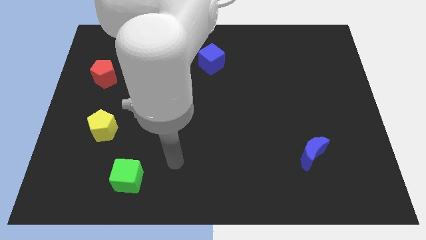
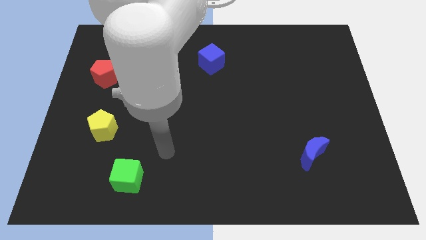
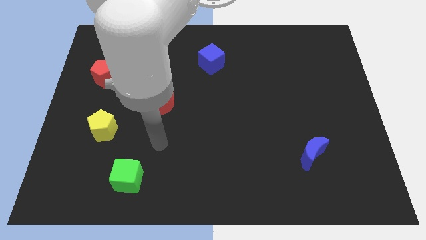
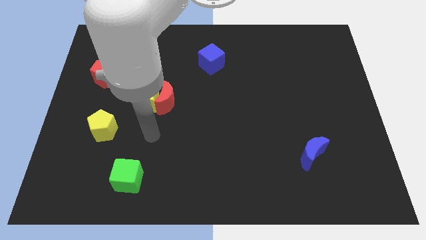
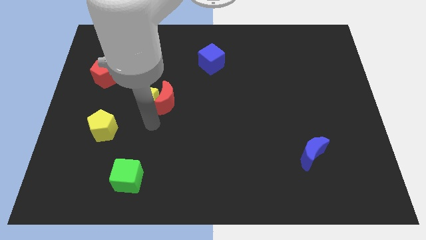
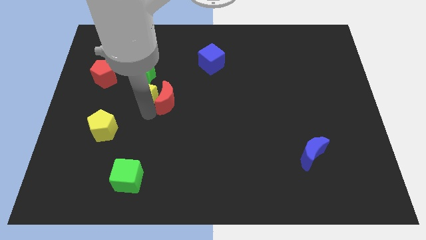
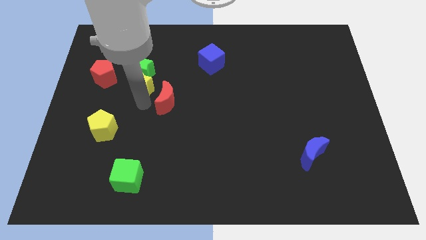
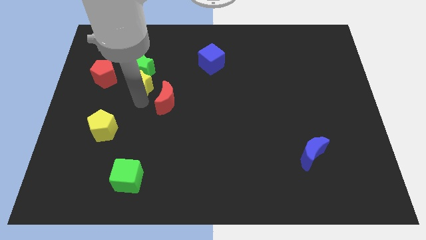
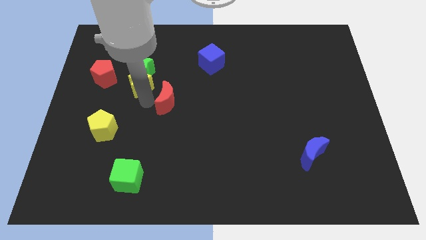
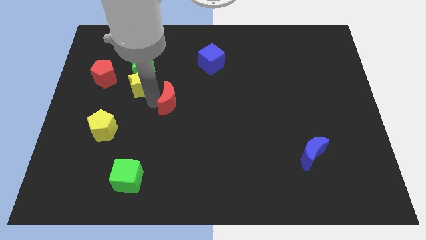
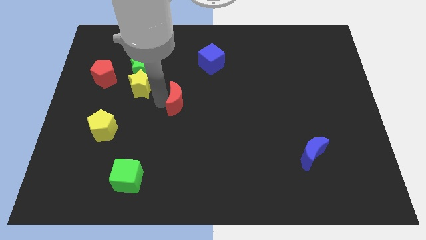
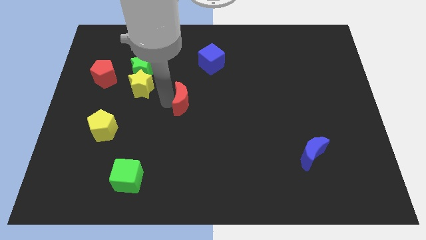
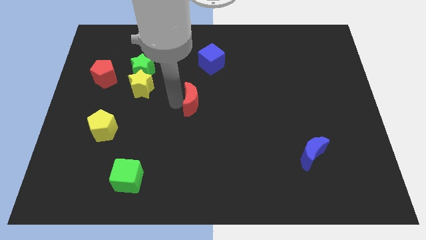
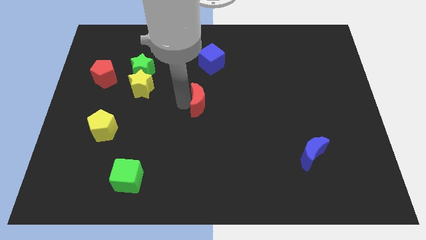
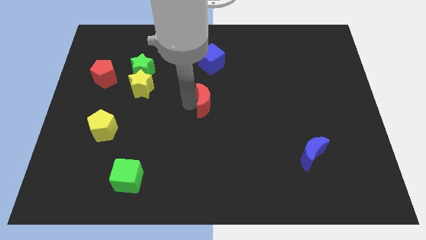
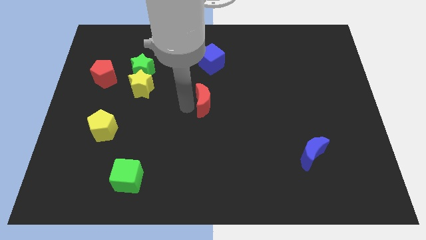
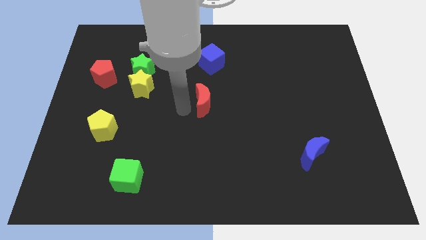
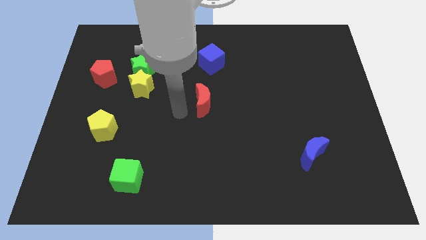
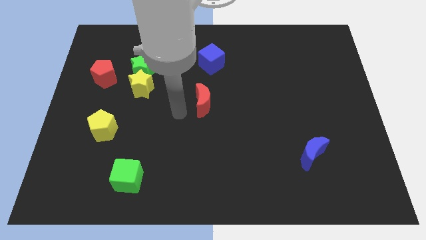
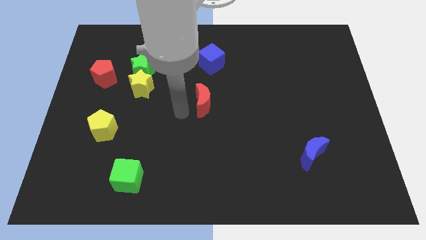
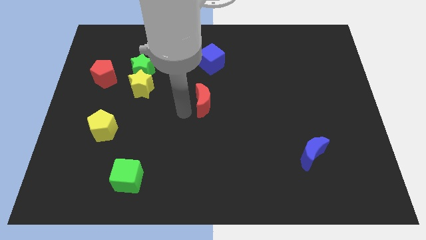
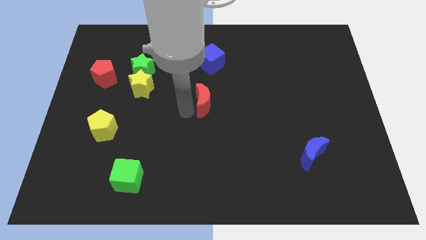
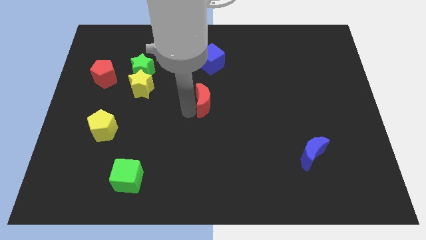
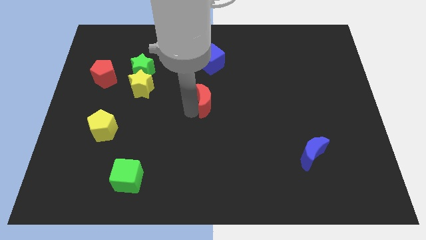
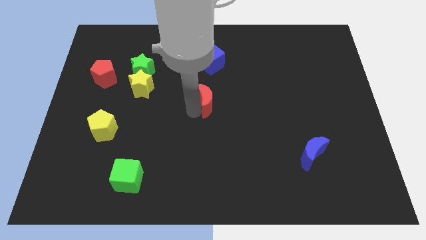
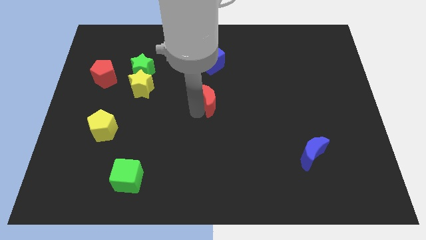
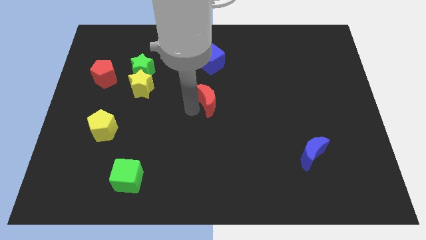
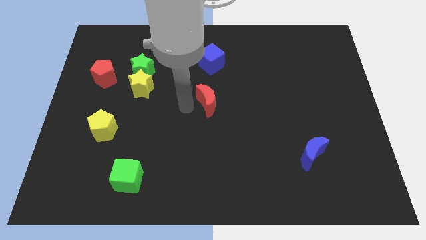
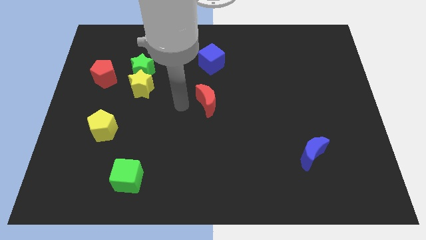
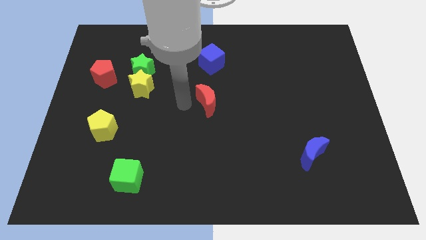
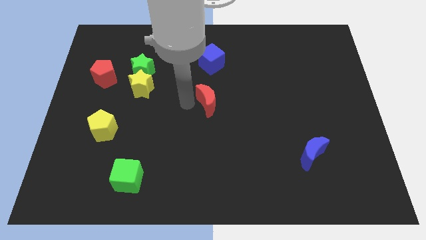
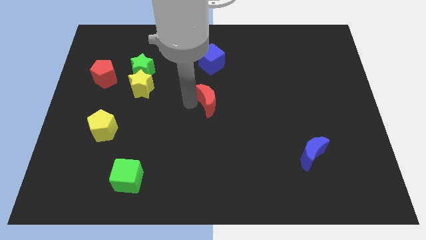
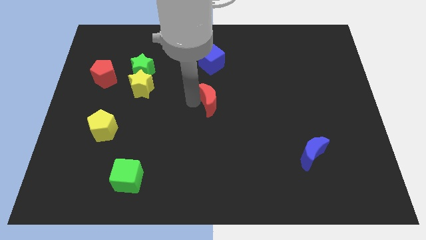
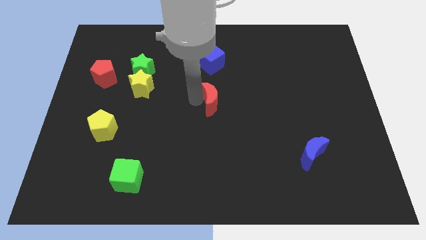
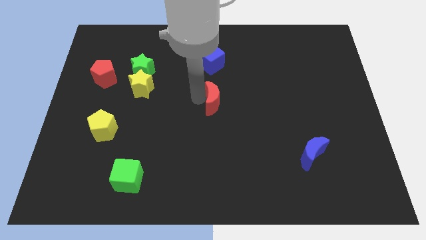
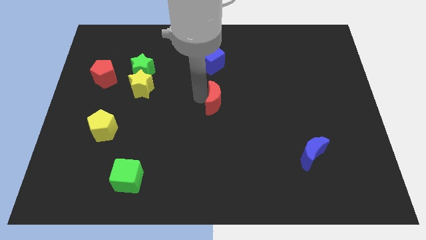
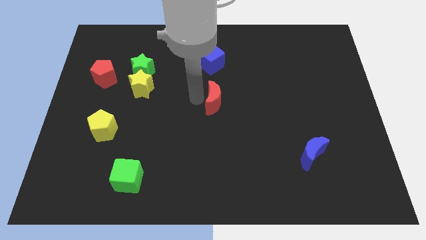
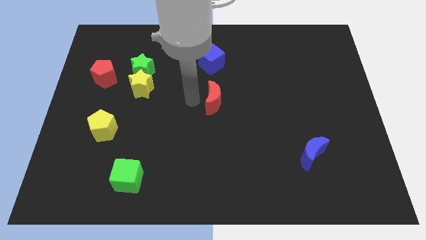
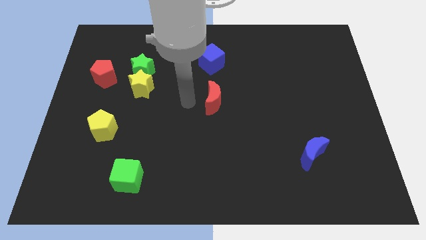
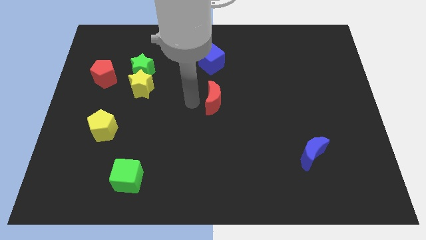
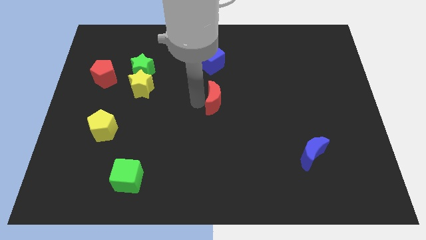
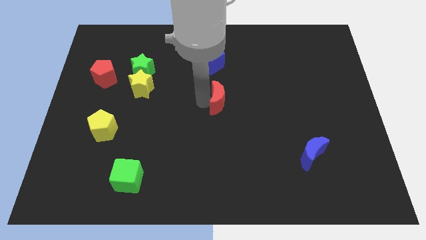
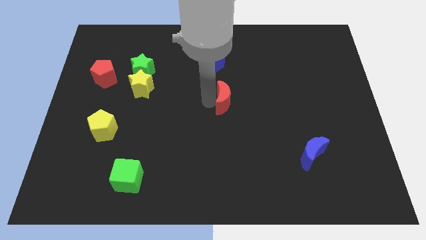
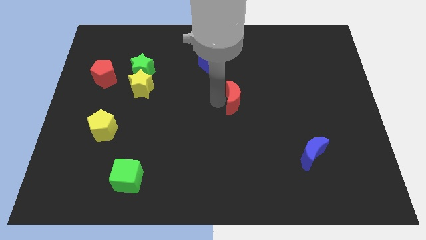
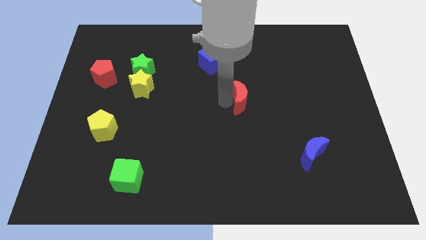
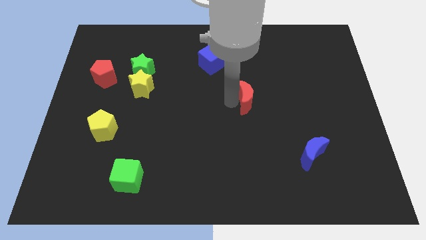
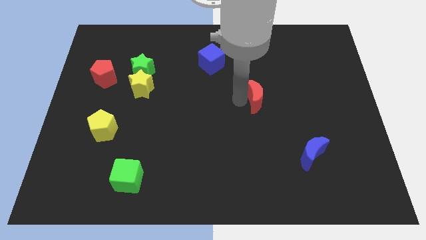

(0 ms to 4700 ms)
slide the red moon to the right

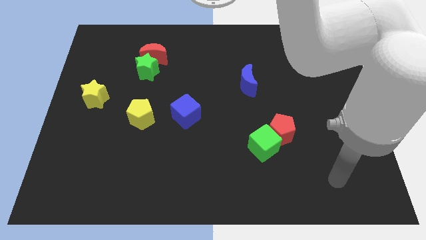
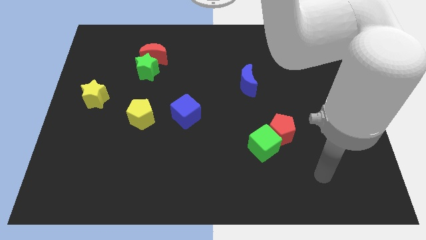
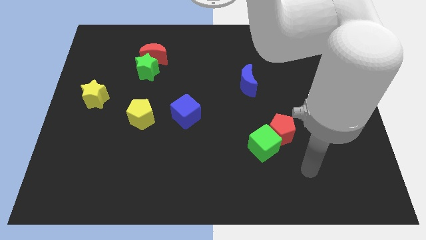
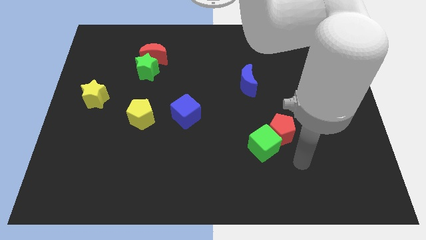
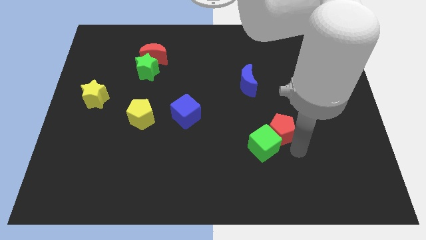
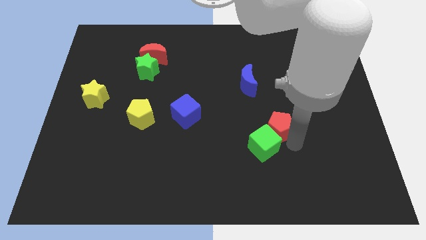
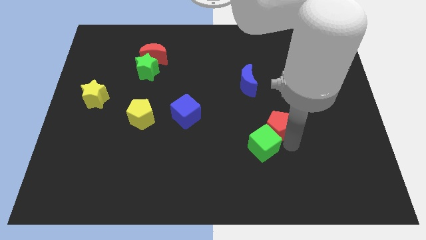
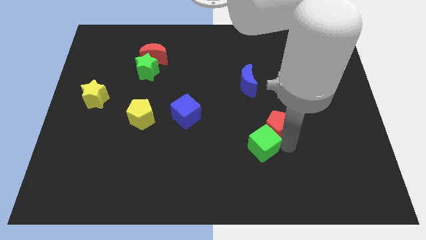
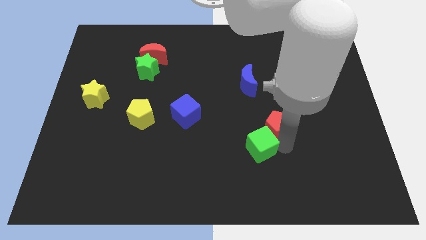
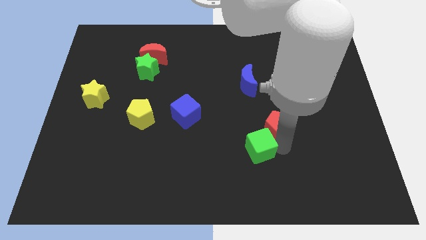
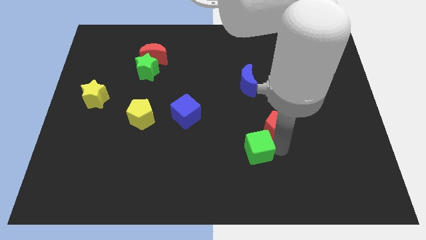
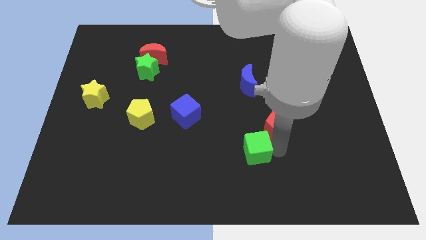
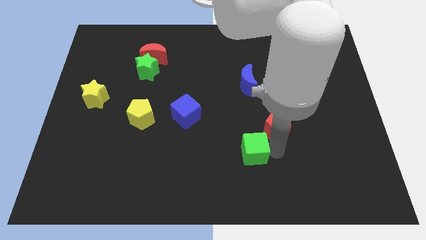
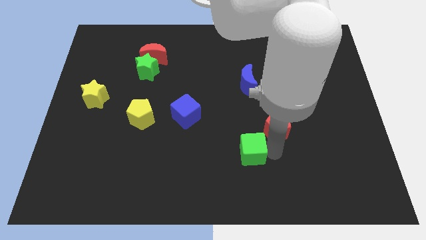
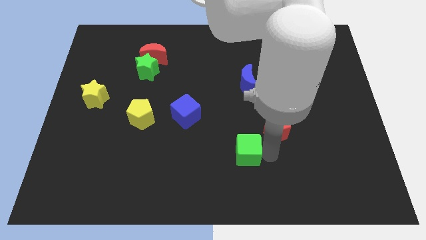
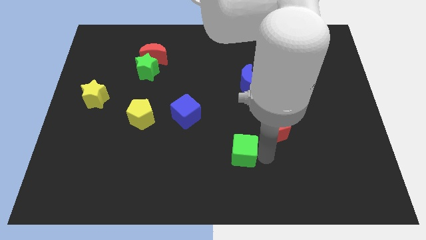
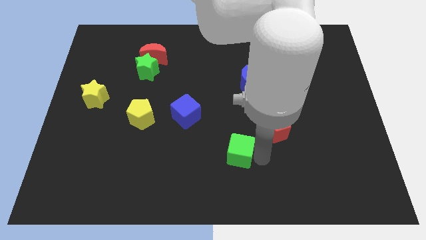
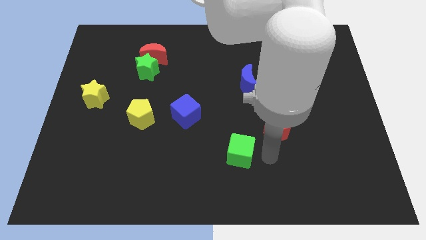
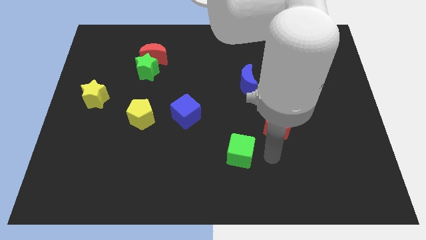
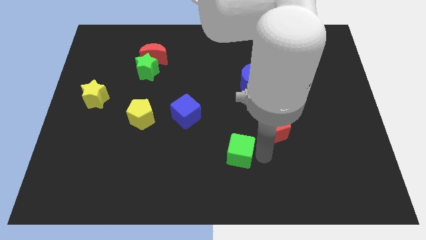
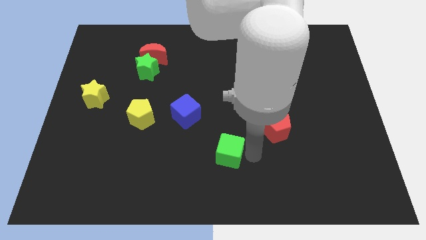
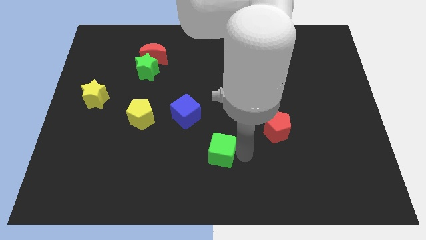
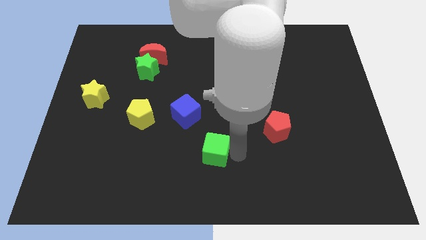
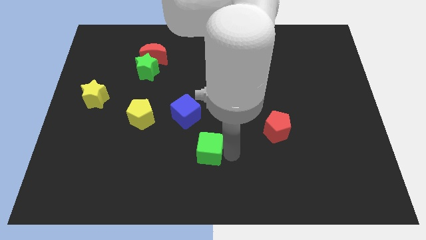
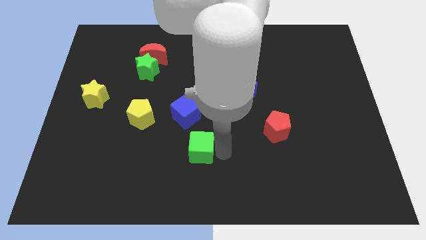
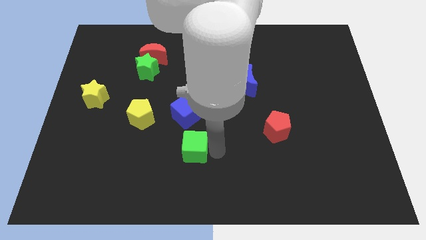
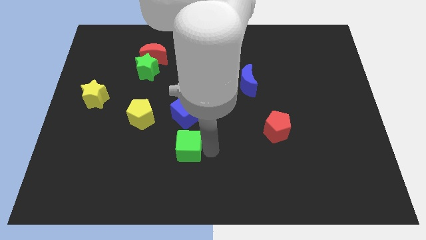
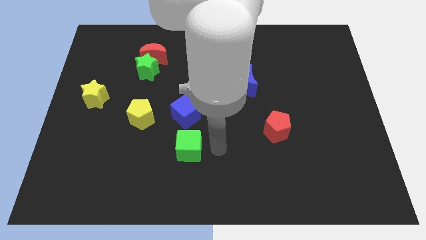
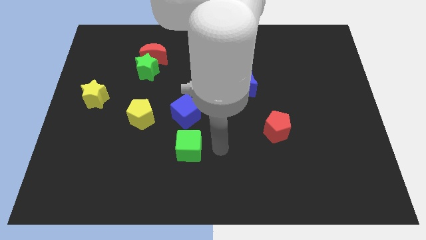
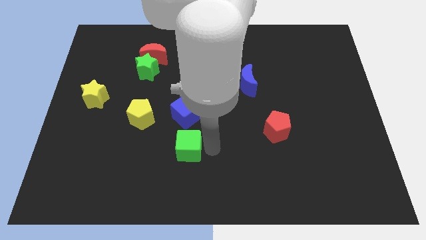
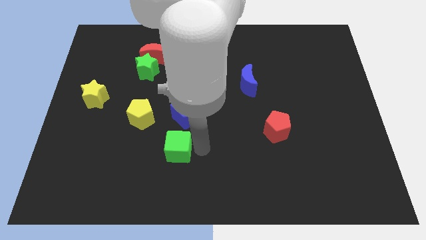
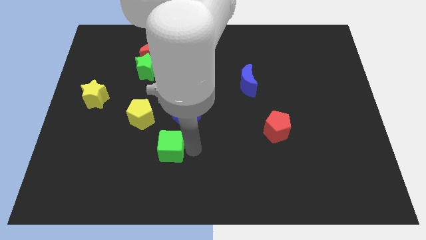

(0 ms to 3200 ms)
slide the green cube to the left

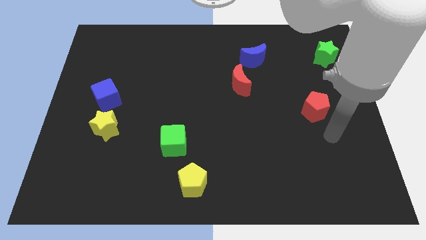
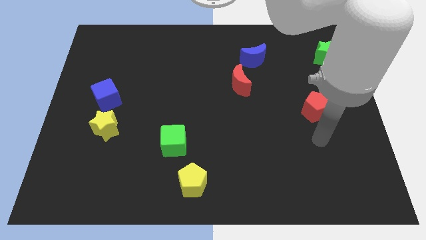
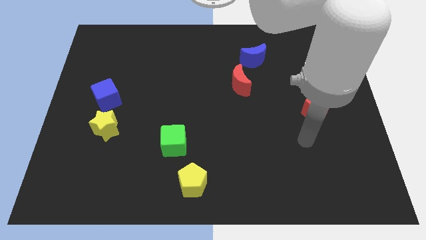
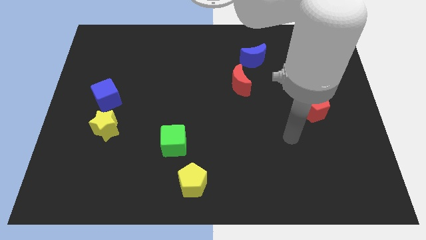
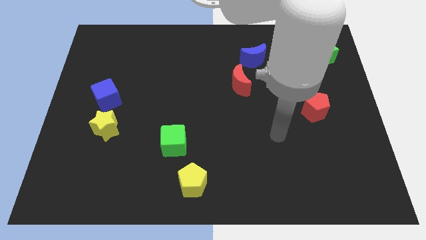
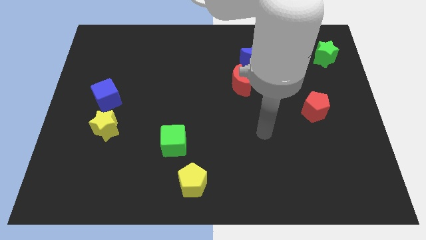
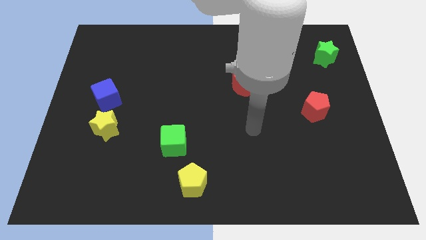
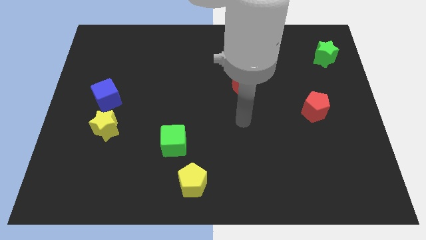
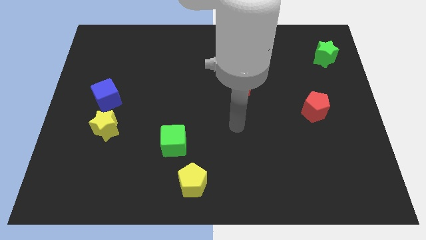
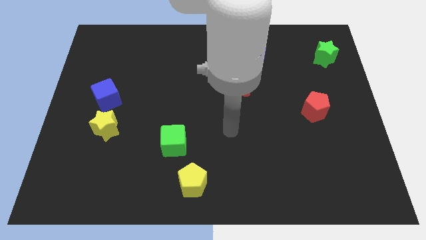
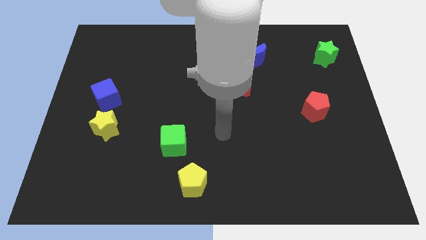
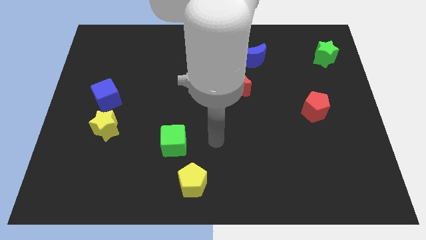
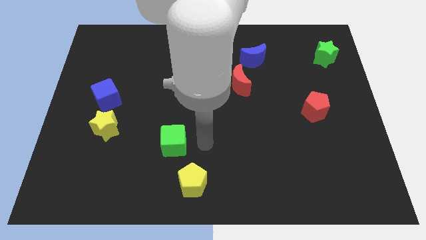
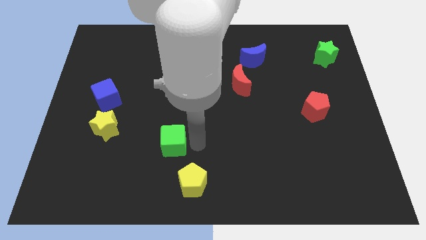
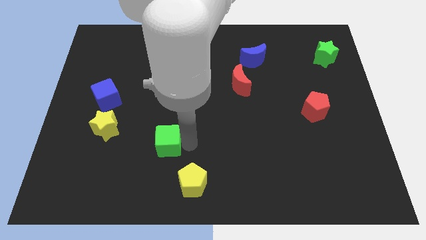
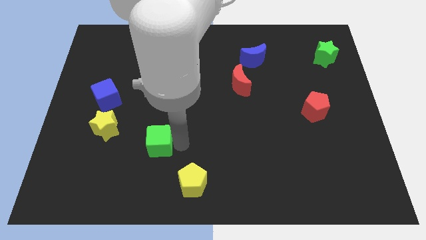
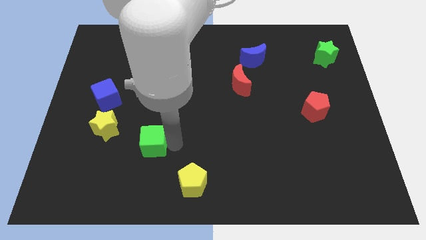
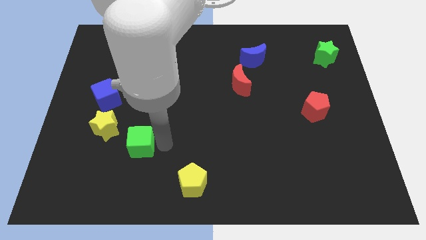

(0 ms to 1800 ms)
slide the green cube slightly to the left
